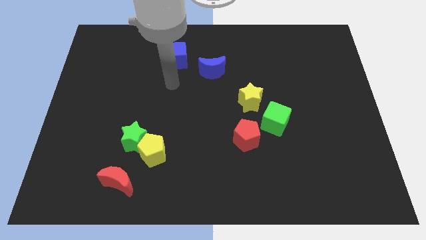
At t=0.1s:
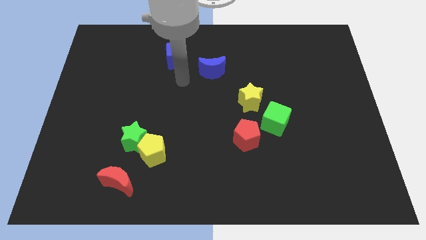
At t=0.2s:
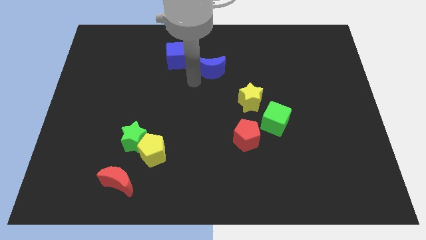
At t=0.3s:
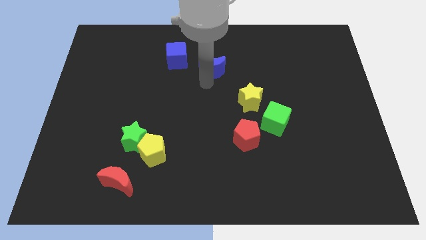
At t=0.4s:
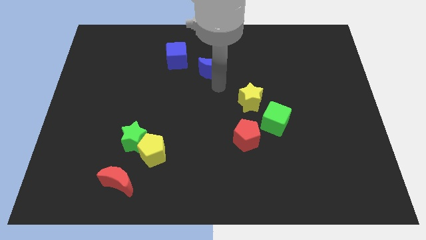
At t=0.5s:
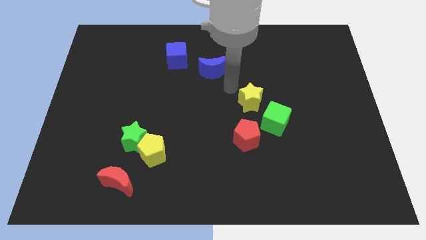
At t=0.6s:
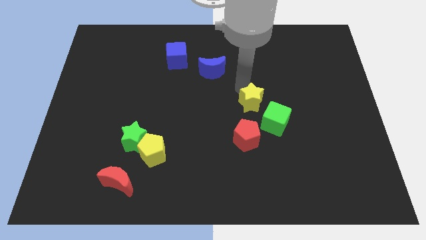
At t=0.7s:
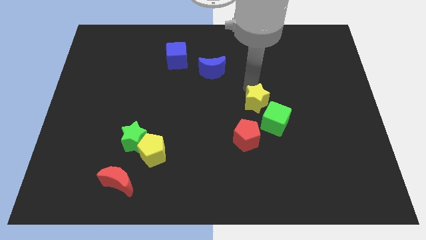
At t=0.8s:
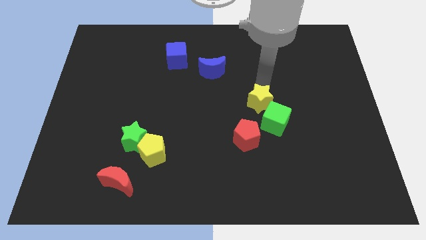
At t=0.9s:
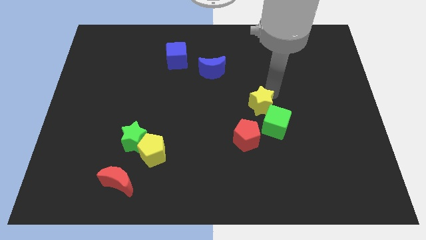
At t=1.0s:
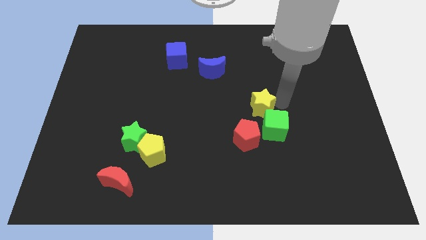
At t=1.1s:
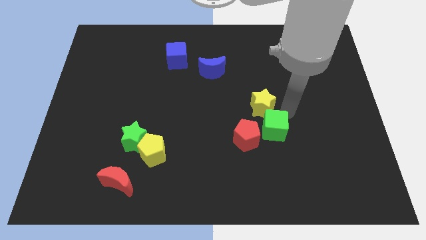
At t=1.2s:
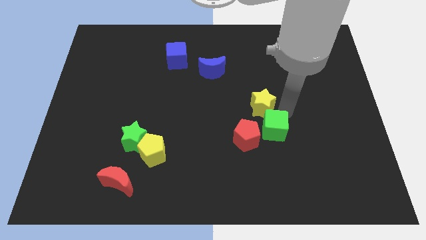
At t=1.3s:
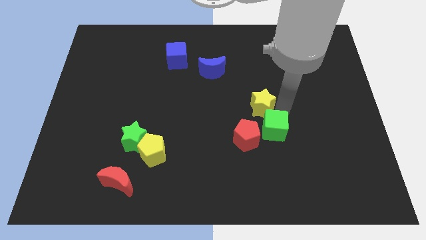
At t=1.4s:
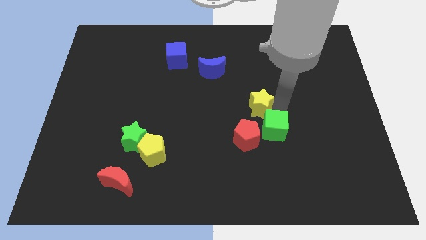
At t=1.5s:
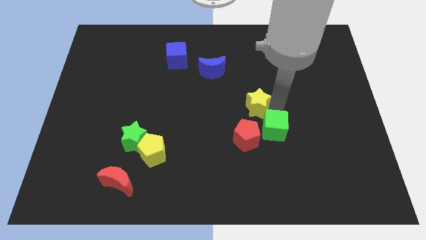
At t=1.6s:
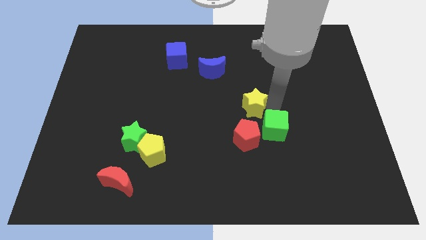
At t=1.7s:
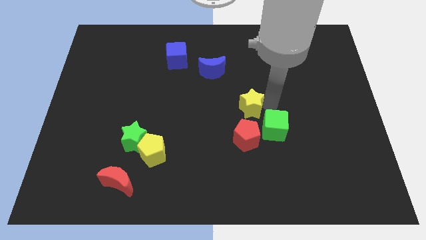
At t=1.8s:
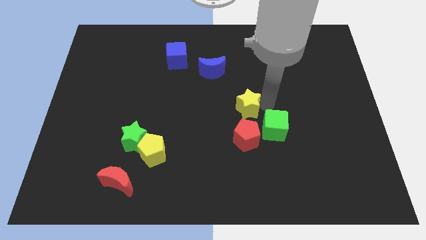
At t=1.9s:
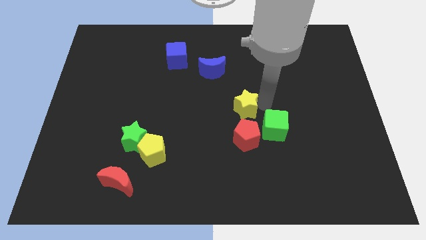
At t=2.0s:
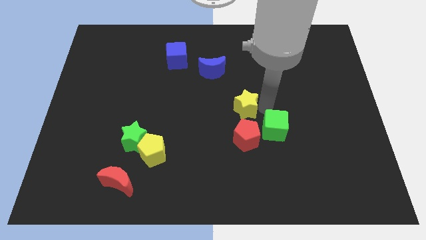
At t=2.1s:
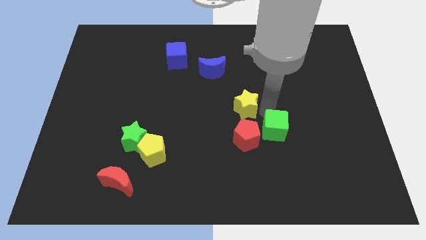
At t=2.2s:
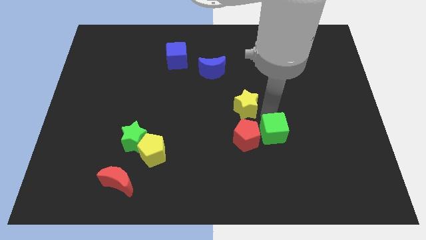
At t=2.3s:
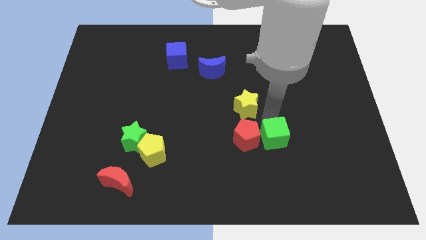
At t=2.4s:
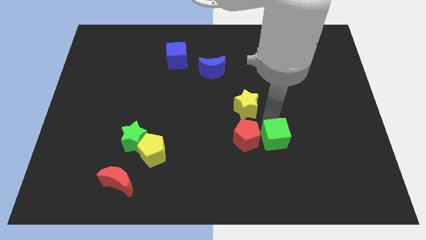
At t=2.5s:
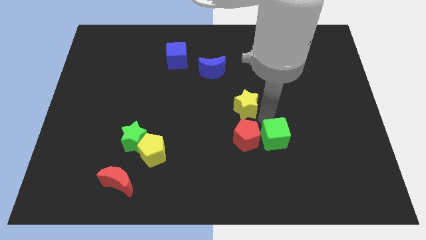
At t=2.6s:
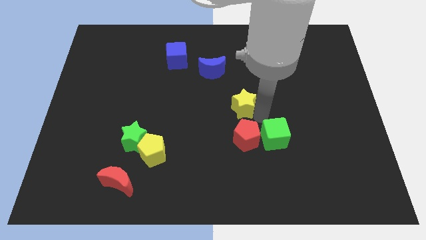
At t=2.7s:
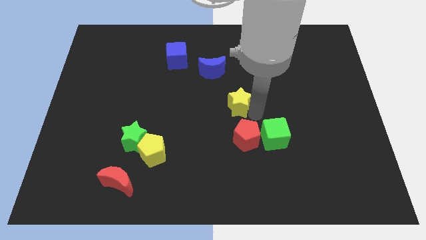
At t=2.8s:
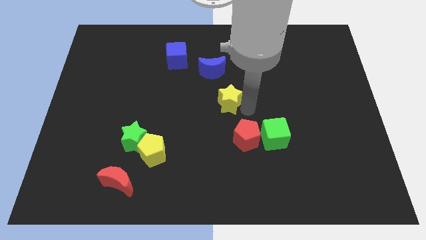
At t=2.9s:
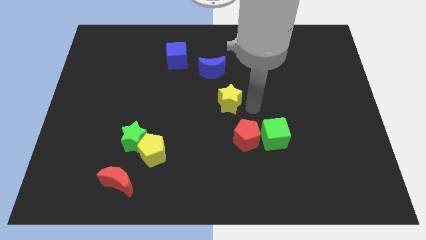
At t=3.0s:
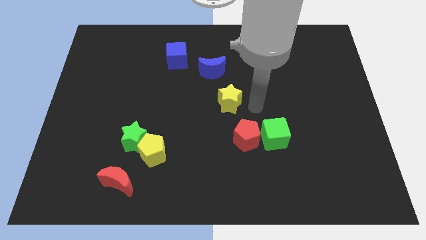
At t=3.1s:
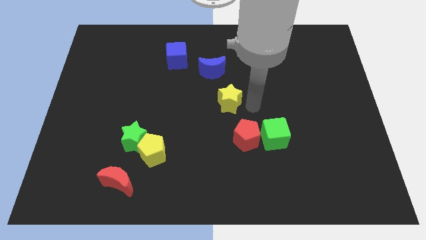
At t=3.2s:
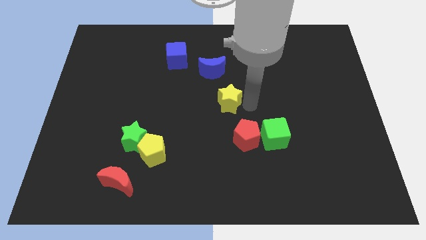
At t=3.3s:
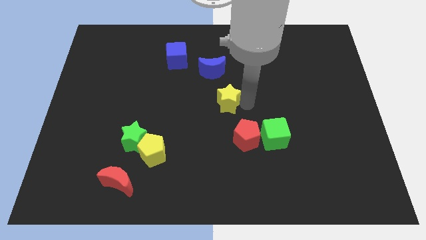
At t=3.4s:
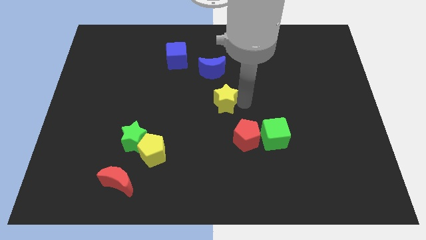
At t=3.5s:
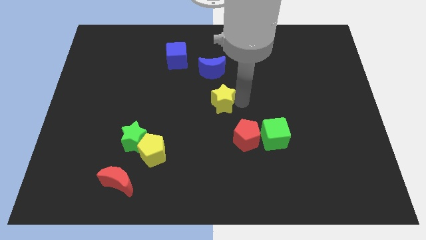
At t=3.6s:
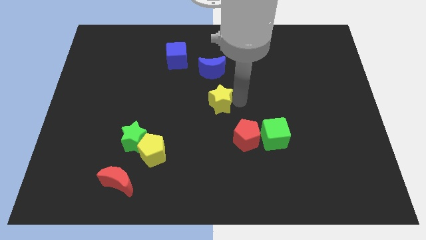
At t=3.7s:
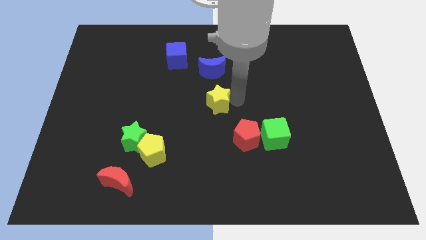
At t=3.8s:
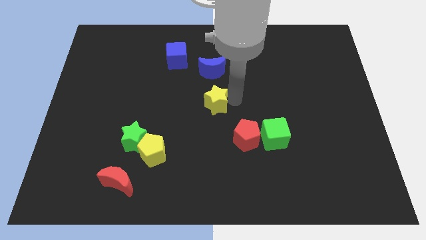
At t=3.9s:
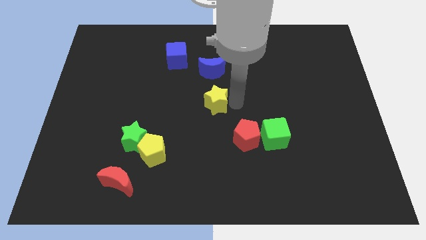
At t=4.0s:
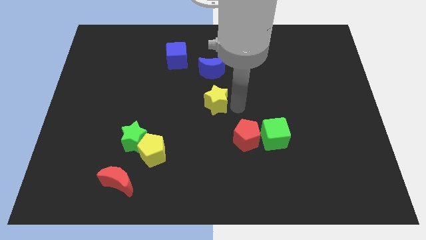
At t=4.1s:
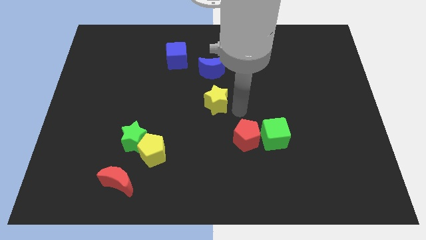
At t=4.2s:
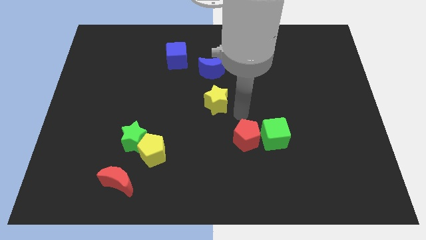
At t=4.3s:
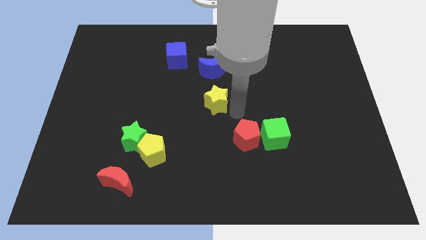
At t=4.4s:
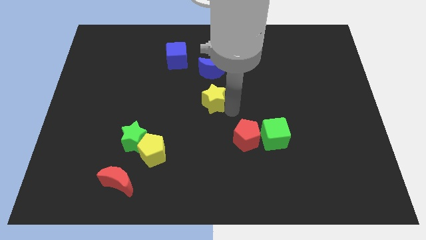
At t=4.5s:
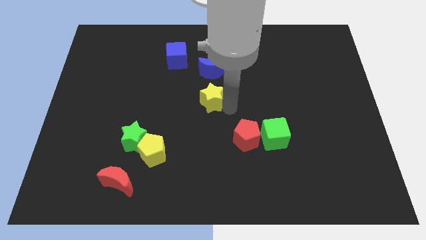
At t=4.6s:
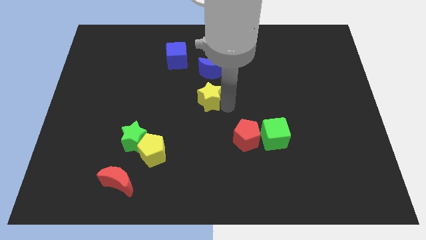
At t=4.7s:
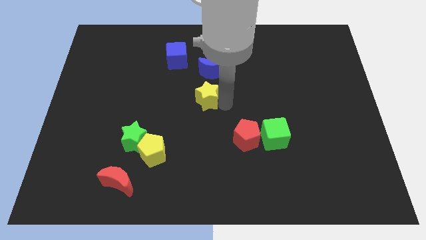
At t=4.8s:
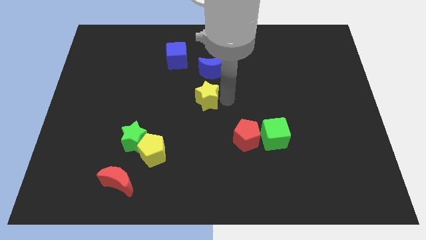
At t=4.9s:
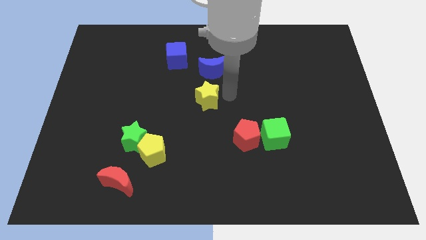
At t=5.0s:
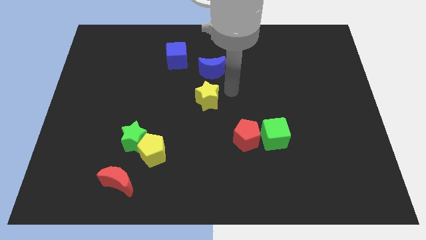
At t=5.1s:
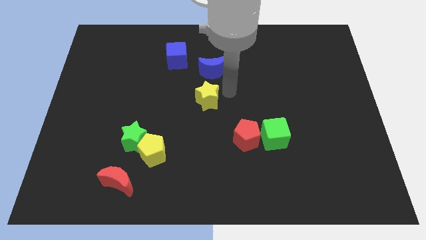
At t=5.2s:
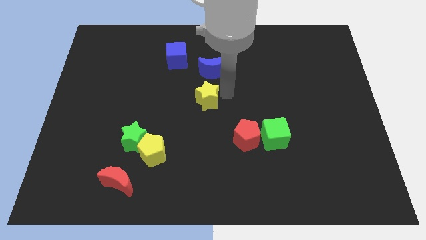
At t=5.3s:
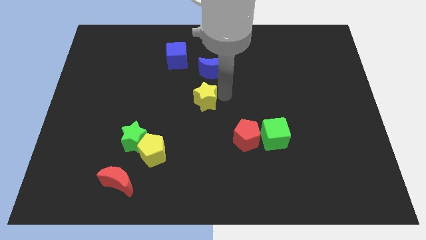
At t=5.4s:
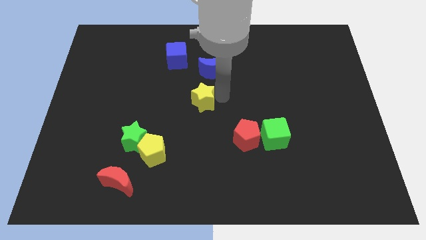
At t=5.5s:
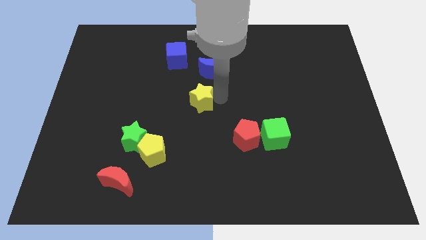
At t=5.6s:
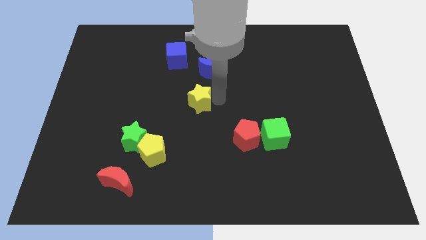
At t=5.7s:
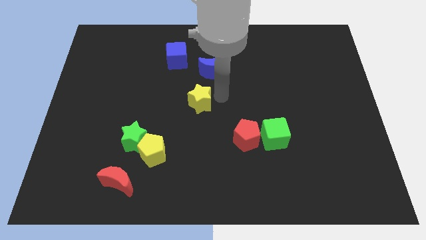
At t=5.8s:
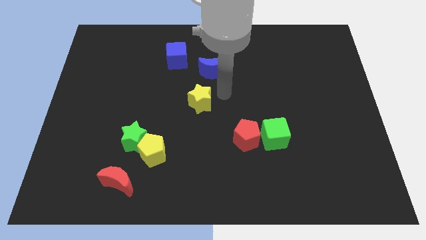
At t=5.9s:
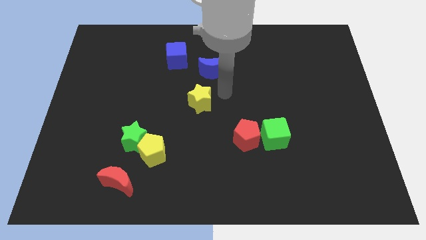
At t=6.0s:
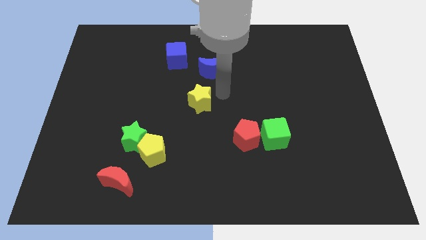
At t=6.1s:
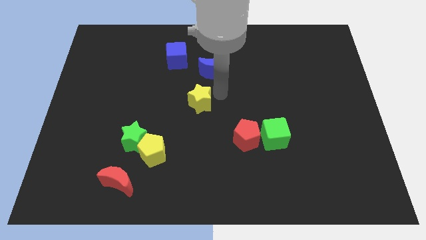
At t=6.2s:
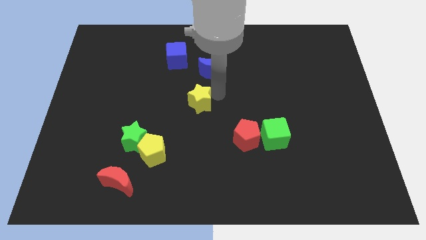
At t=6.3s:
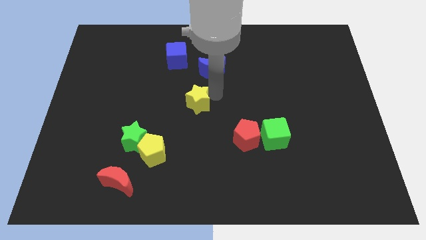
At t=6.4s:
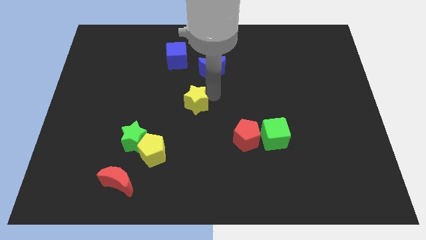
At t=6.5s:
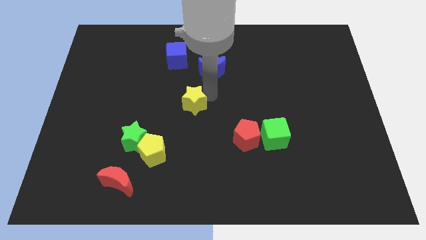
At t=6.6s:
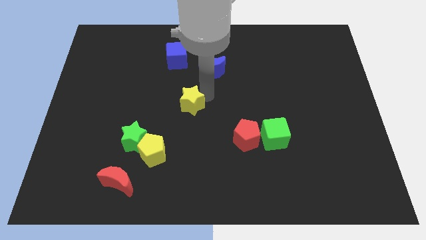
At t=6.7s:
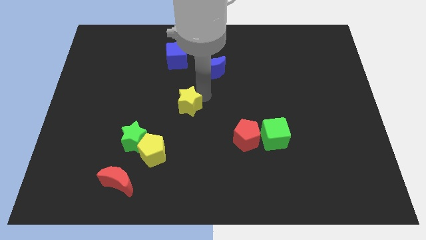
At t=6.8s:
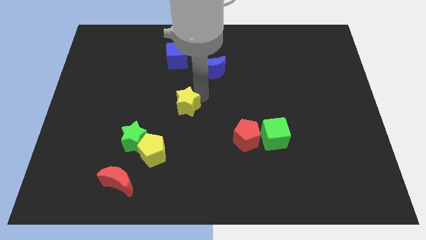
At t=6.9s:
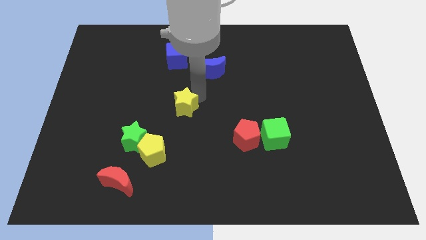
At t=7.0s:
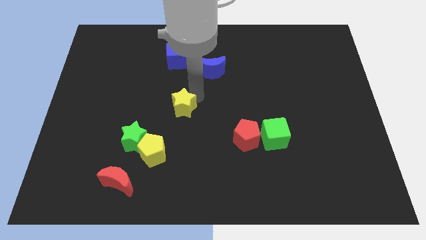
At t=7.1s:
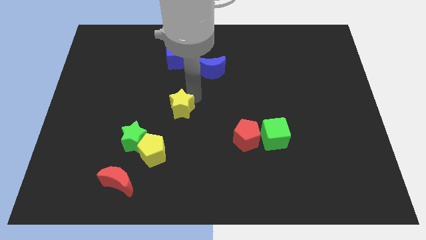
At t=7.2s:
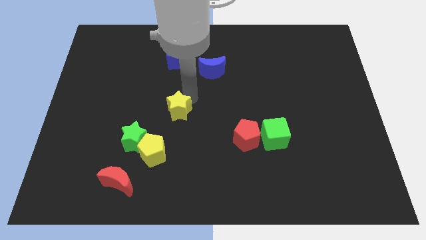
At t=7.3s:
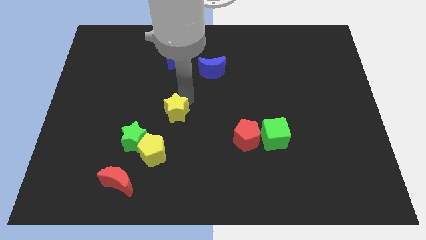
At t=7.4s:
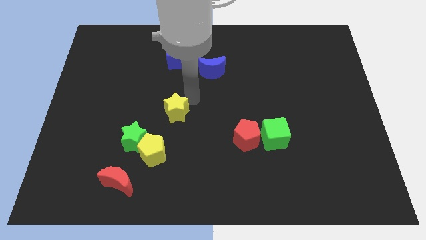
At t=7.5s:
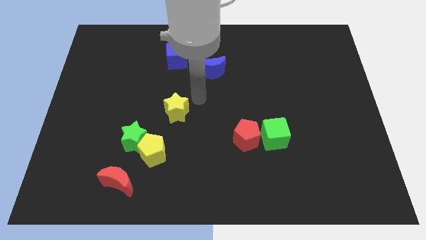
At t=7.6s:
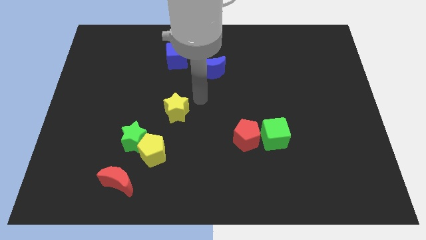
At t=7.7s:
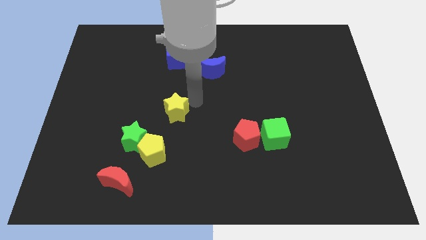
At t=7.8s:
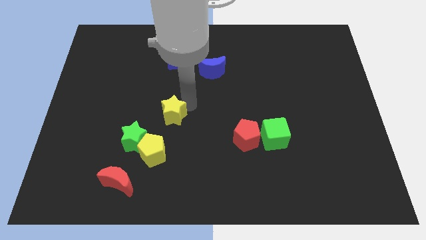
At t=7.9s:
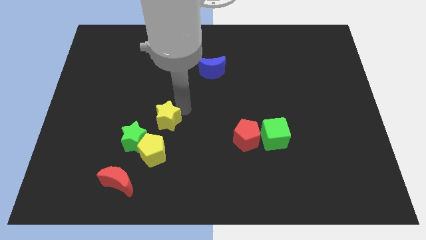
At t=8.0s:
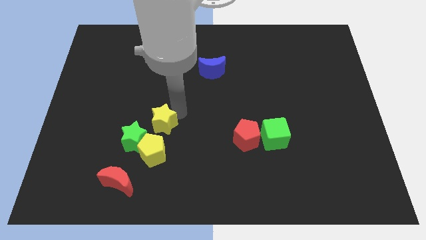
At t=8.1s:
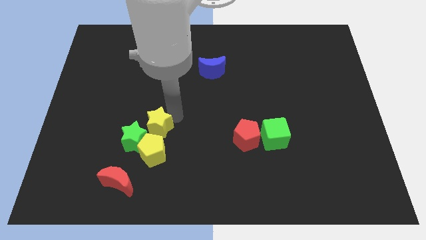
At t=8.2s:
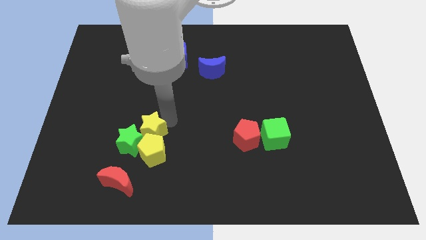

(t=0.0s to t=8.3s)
put the yellow star close to the green star
